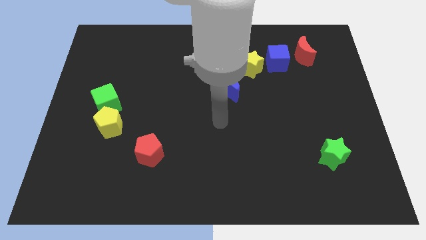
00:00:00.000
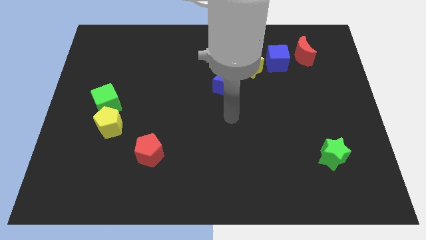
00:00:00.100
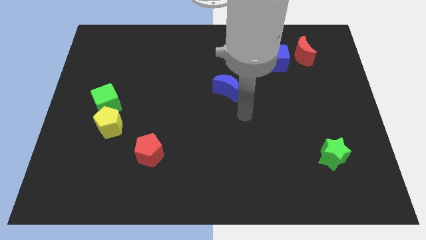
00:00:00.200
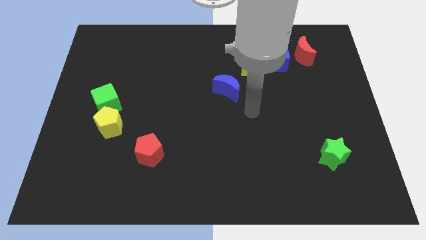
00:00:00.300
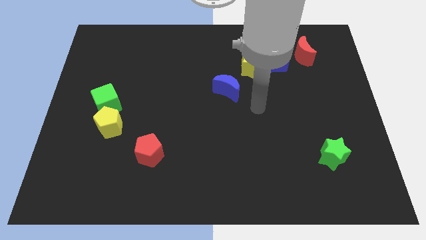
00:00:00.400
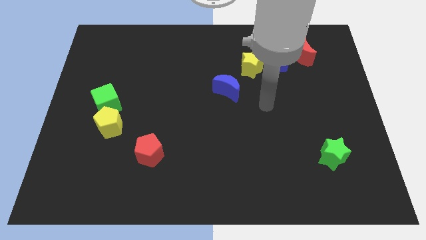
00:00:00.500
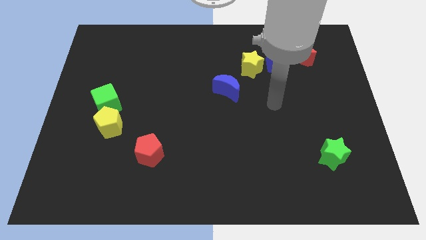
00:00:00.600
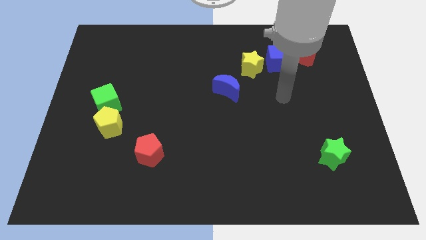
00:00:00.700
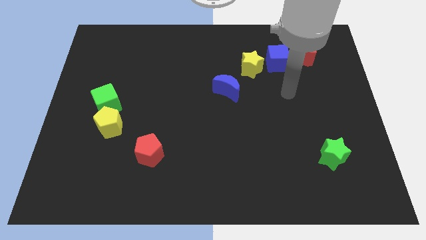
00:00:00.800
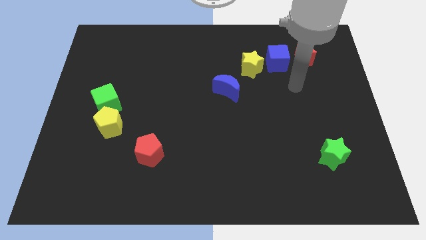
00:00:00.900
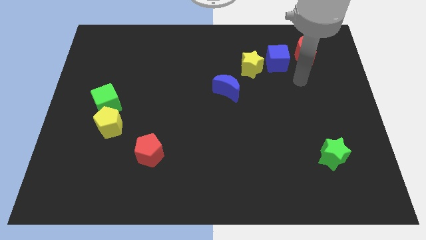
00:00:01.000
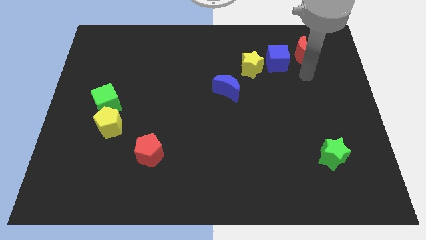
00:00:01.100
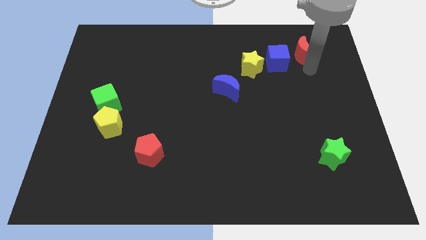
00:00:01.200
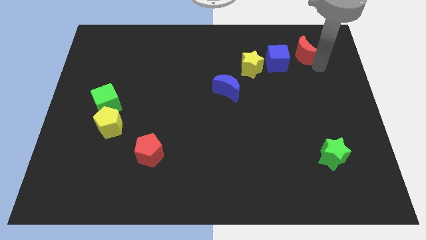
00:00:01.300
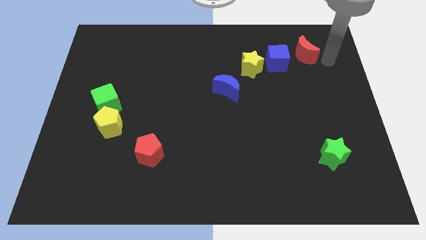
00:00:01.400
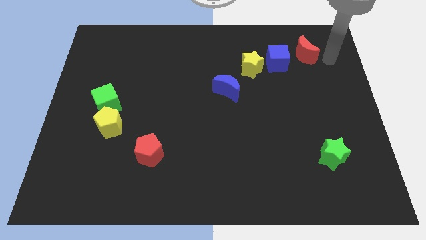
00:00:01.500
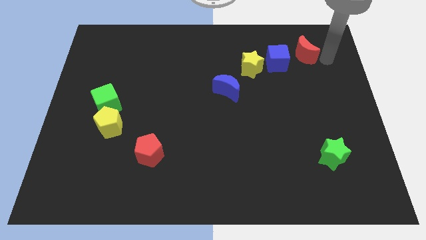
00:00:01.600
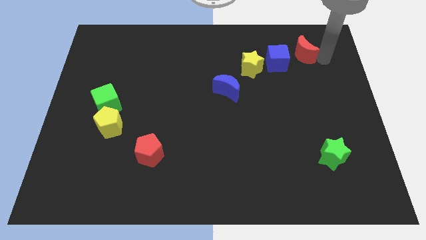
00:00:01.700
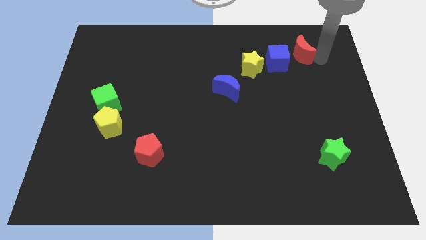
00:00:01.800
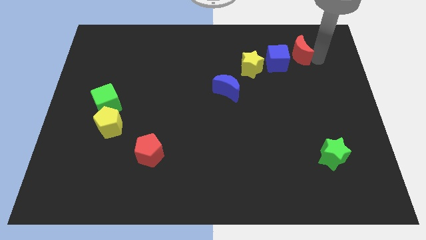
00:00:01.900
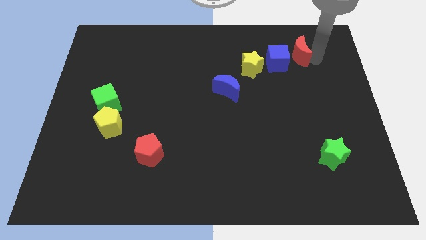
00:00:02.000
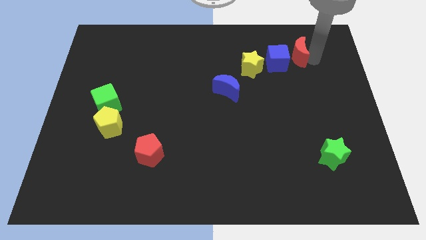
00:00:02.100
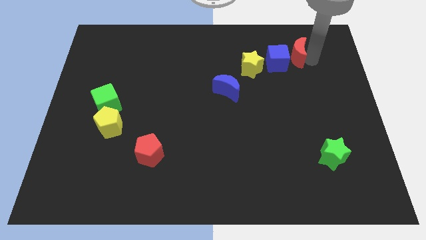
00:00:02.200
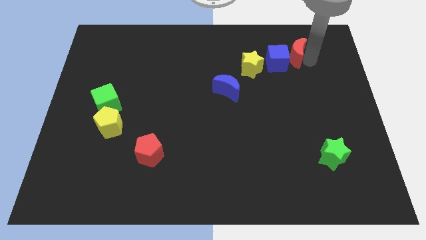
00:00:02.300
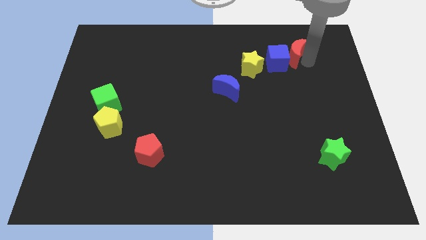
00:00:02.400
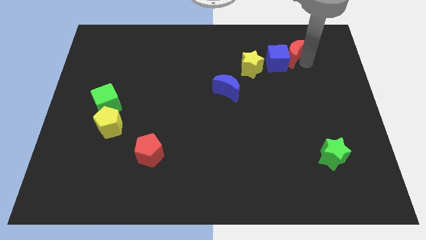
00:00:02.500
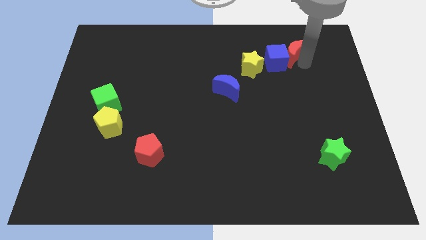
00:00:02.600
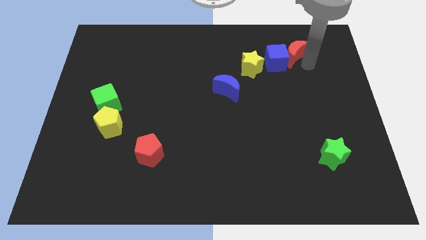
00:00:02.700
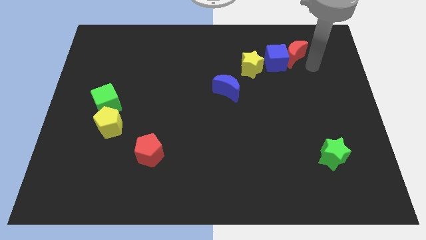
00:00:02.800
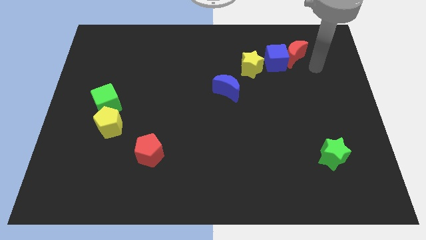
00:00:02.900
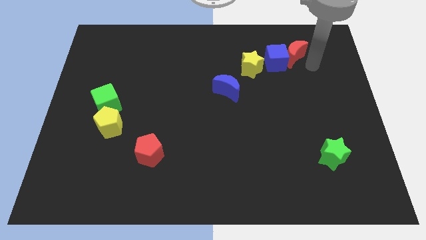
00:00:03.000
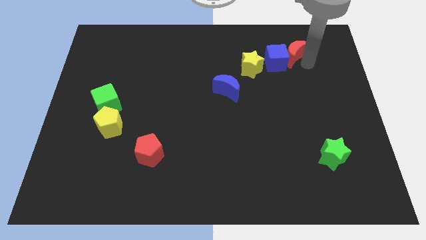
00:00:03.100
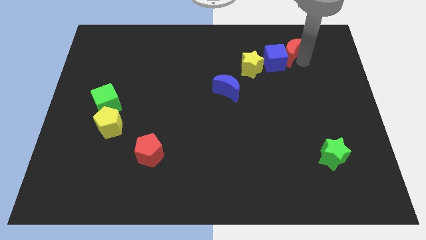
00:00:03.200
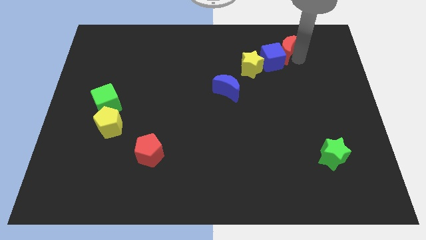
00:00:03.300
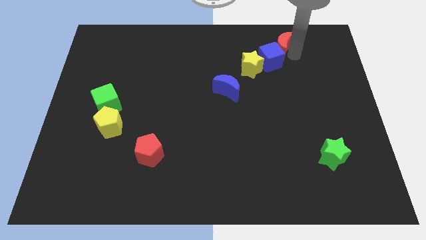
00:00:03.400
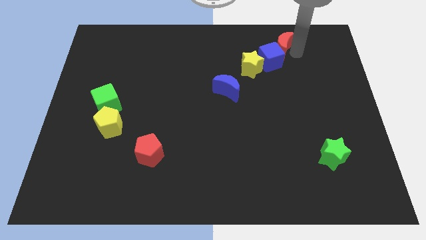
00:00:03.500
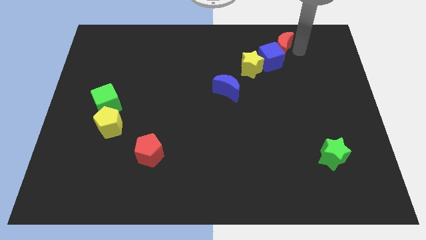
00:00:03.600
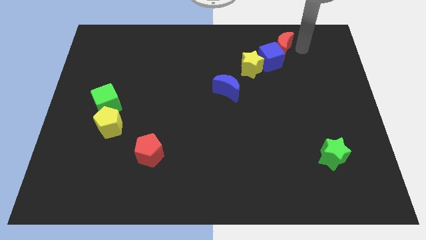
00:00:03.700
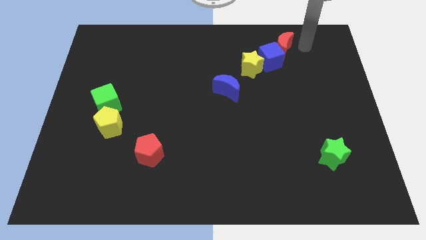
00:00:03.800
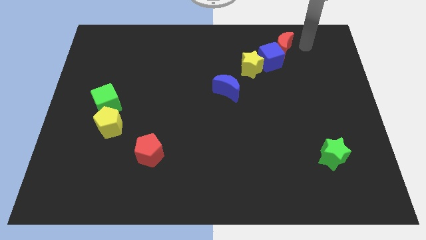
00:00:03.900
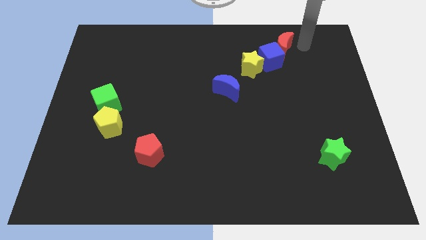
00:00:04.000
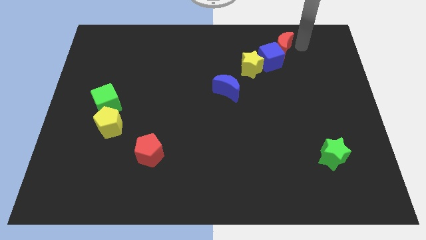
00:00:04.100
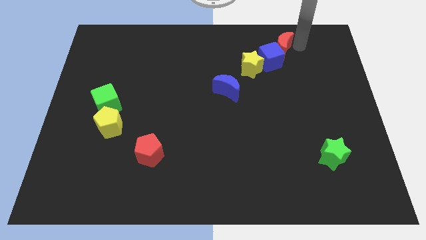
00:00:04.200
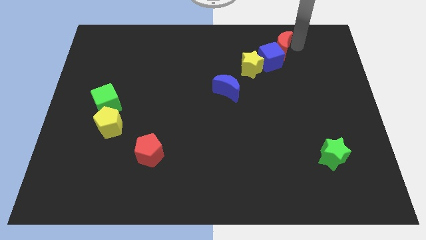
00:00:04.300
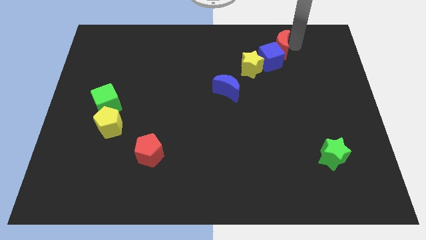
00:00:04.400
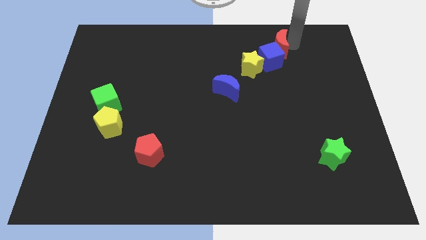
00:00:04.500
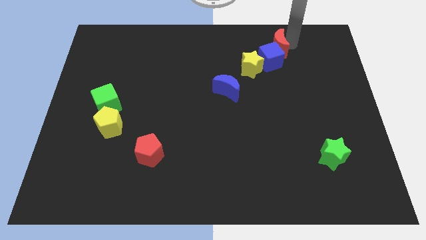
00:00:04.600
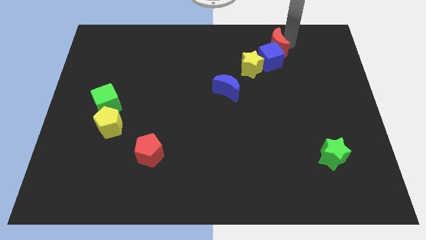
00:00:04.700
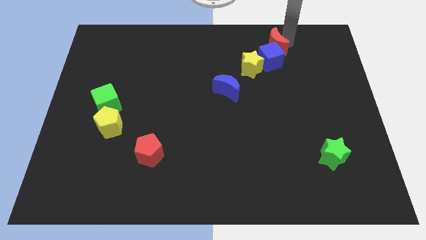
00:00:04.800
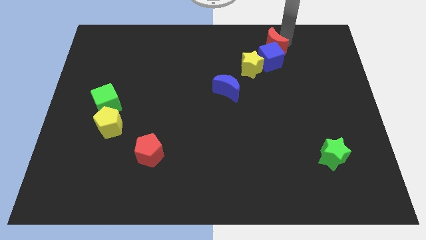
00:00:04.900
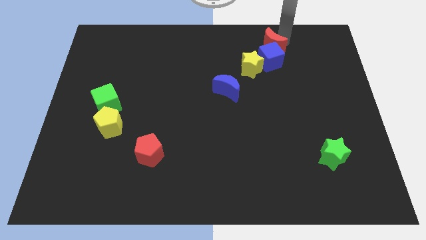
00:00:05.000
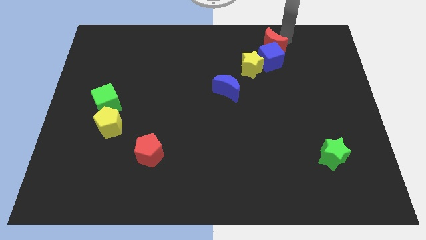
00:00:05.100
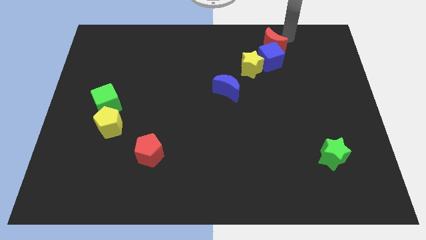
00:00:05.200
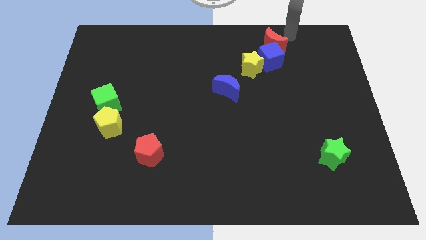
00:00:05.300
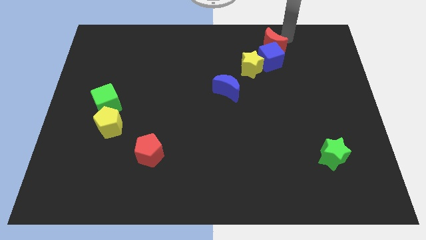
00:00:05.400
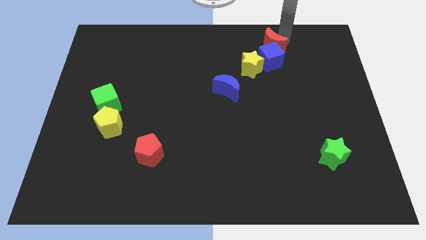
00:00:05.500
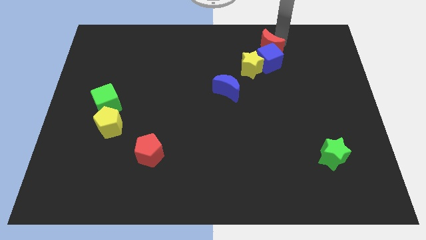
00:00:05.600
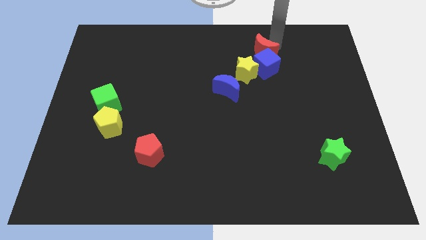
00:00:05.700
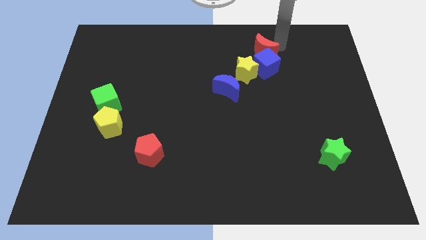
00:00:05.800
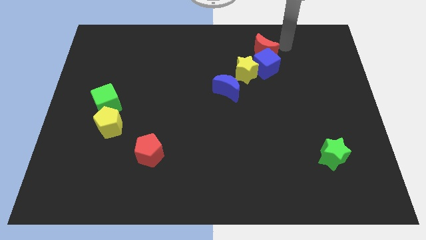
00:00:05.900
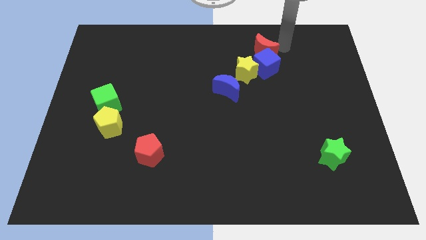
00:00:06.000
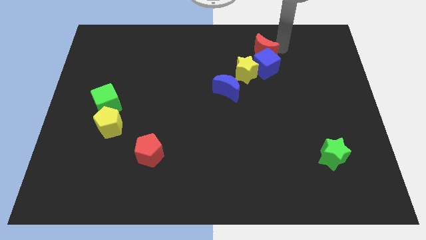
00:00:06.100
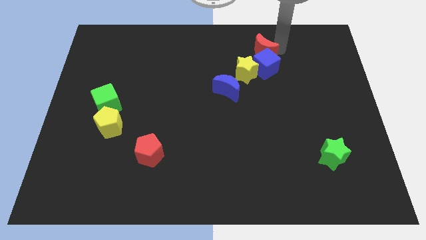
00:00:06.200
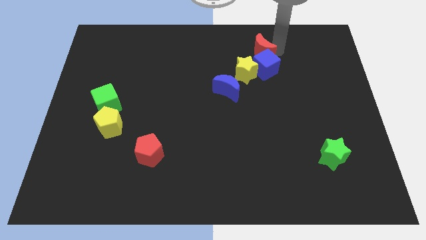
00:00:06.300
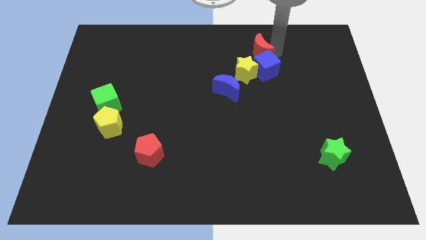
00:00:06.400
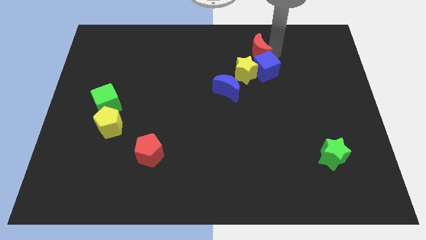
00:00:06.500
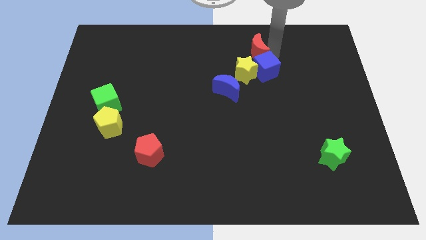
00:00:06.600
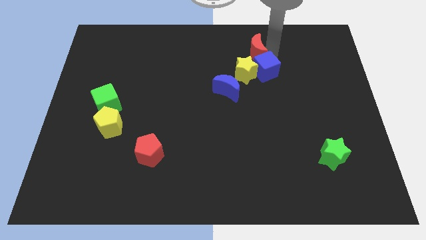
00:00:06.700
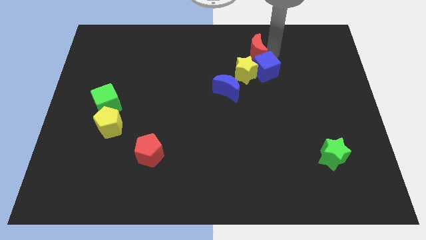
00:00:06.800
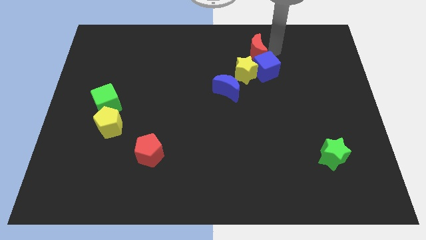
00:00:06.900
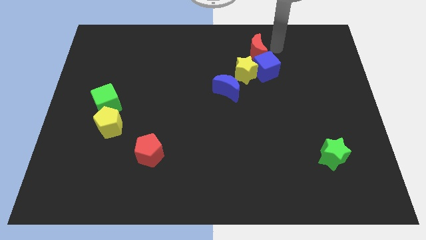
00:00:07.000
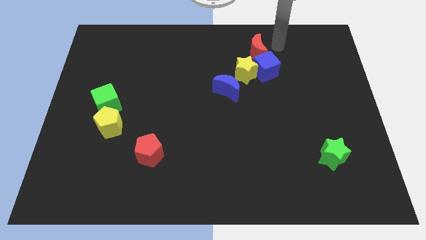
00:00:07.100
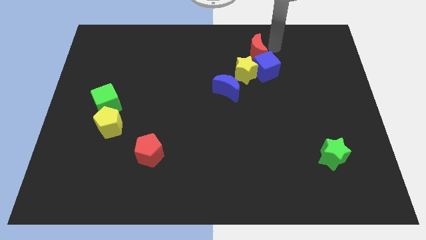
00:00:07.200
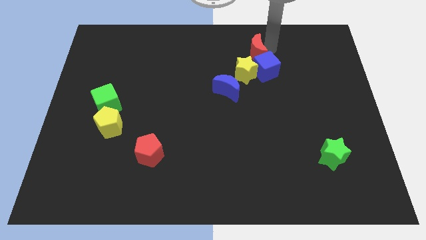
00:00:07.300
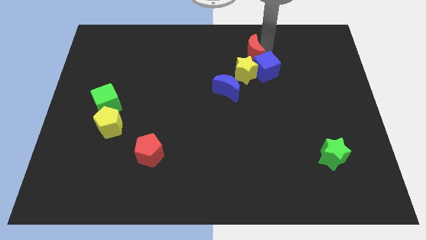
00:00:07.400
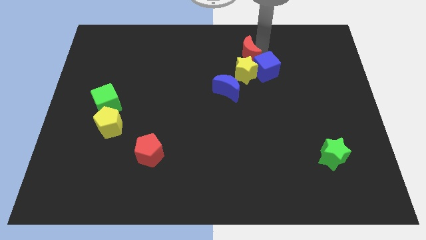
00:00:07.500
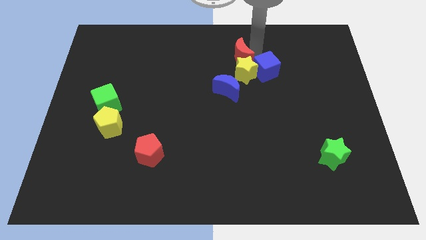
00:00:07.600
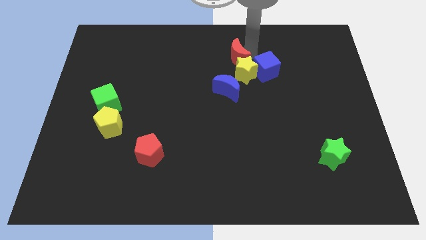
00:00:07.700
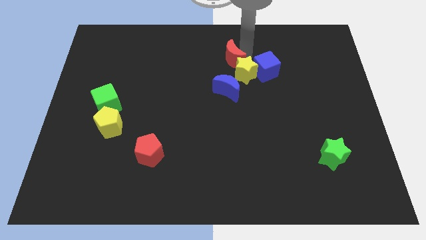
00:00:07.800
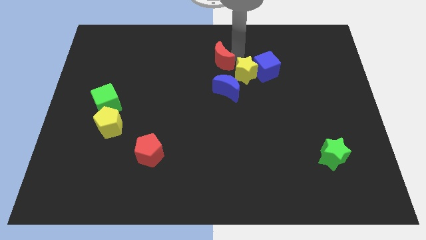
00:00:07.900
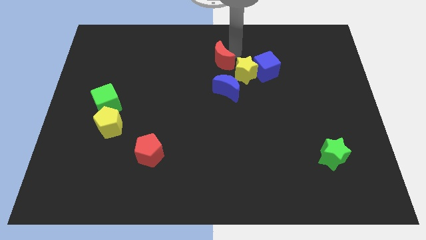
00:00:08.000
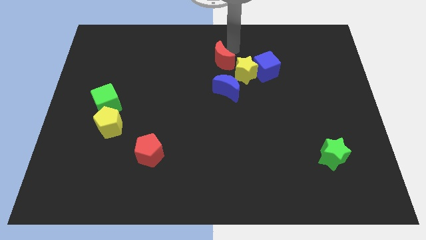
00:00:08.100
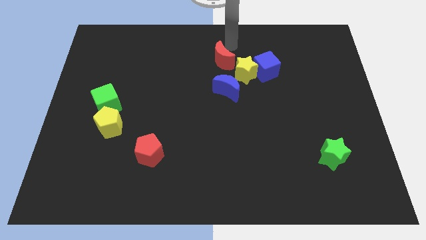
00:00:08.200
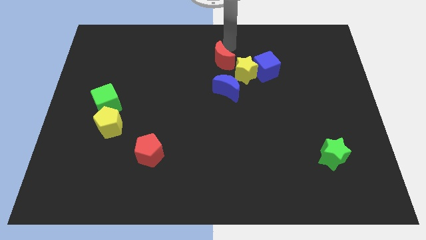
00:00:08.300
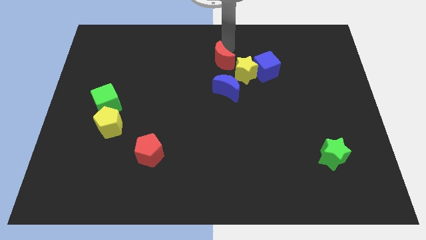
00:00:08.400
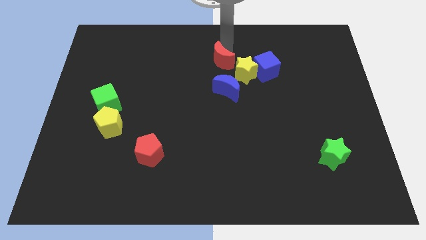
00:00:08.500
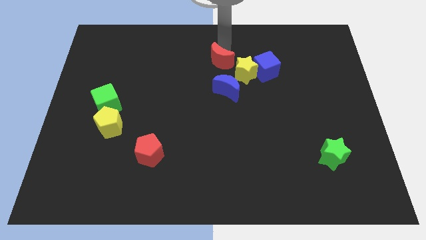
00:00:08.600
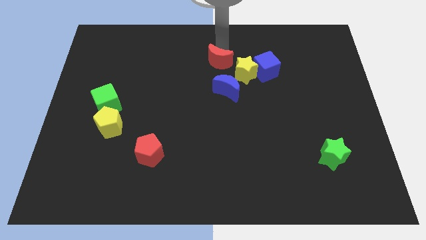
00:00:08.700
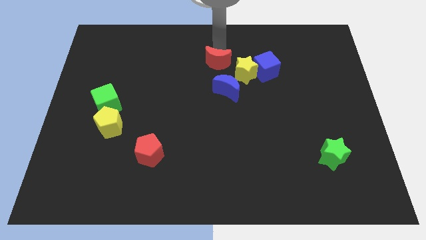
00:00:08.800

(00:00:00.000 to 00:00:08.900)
slide the red moon to the middle
